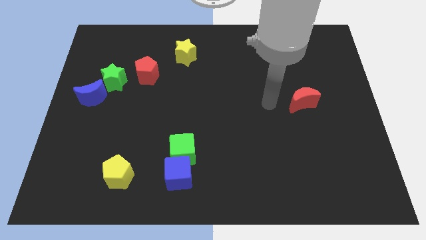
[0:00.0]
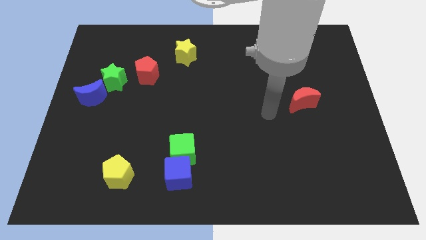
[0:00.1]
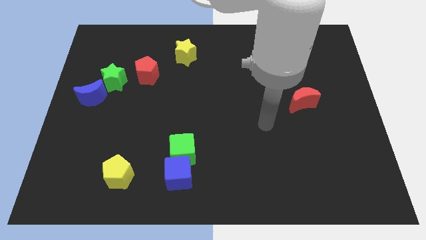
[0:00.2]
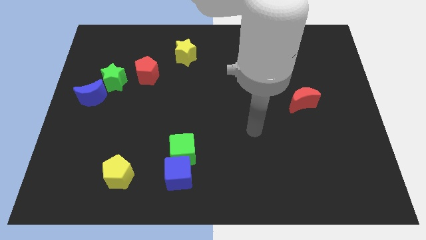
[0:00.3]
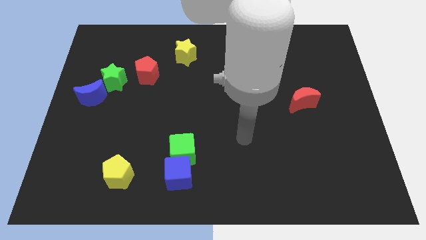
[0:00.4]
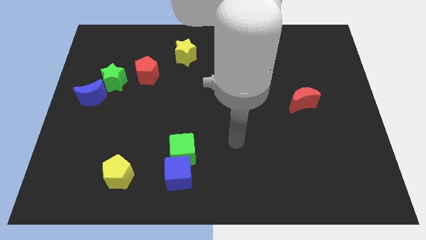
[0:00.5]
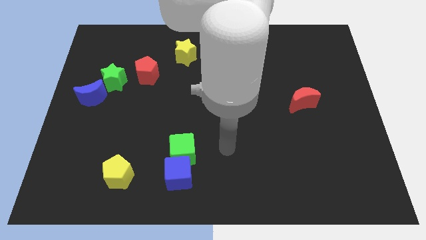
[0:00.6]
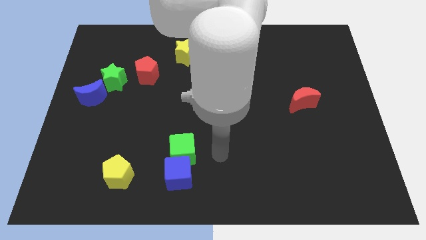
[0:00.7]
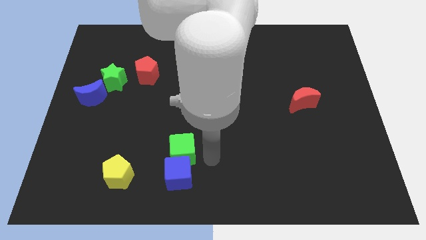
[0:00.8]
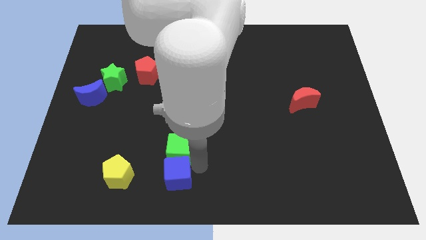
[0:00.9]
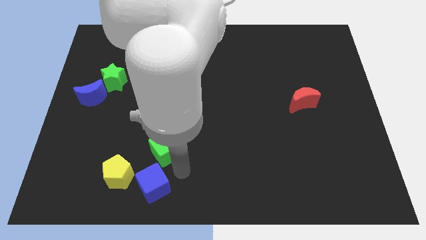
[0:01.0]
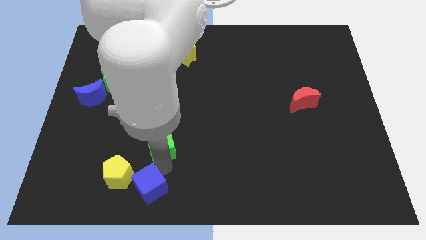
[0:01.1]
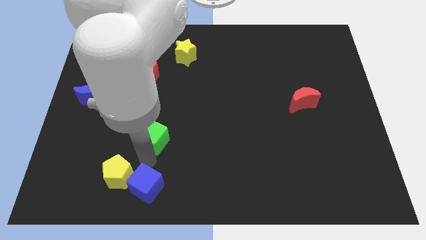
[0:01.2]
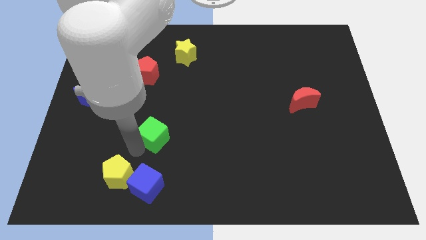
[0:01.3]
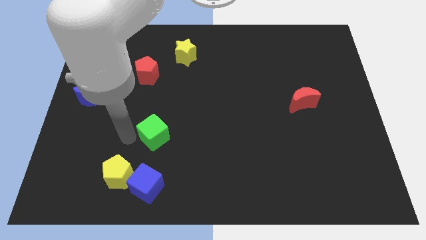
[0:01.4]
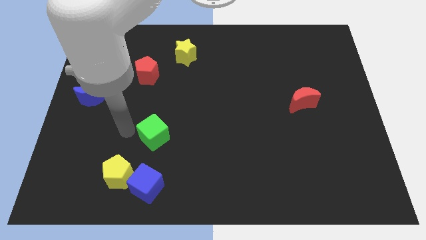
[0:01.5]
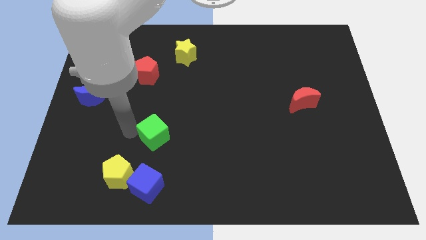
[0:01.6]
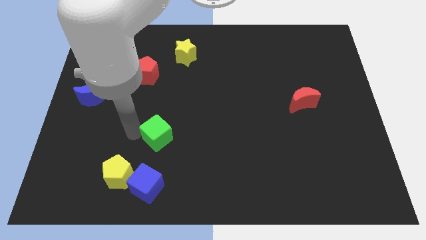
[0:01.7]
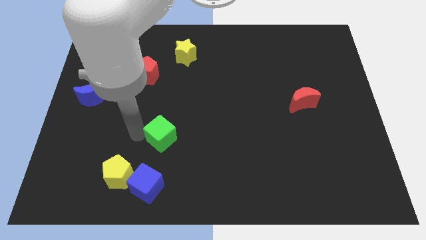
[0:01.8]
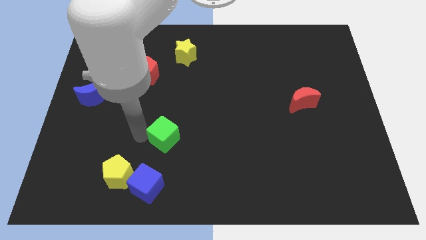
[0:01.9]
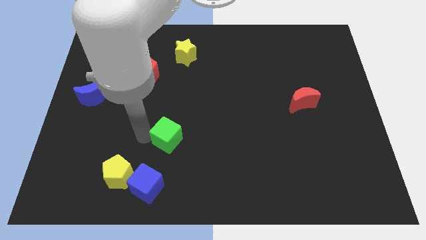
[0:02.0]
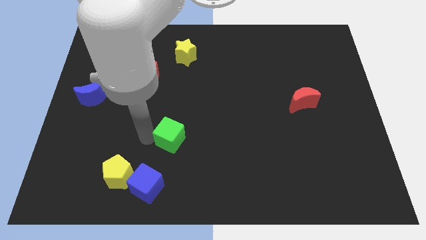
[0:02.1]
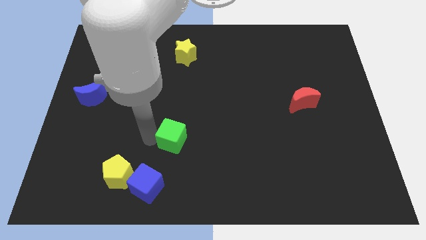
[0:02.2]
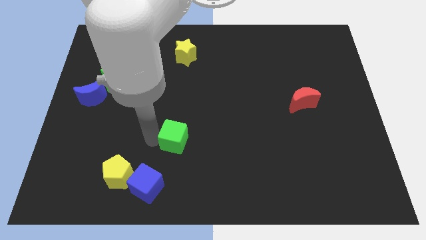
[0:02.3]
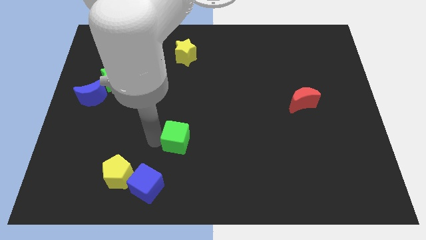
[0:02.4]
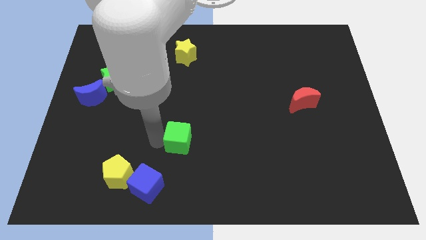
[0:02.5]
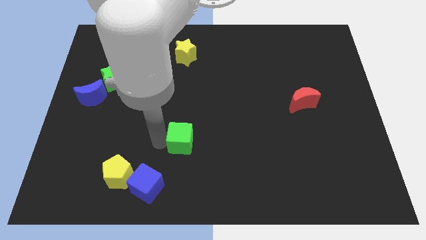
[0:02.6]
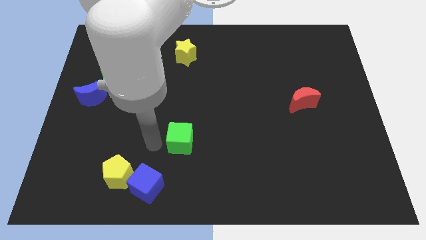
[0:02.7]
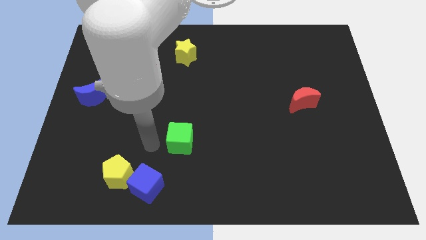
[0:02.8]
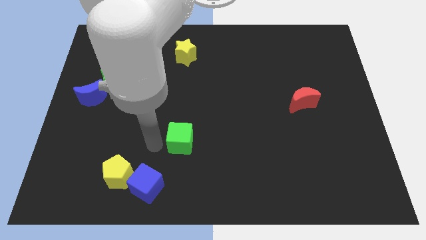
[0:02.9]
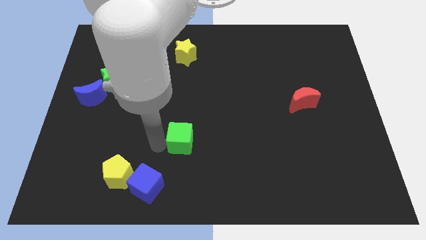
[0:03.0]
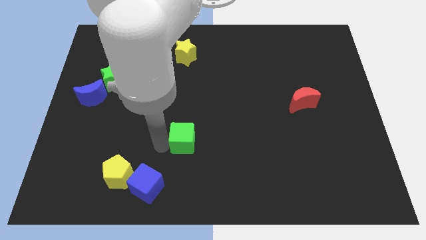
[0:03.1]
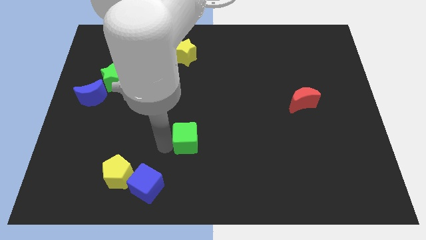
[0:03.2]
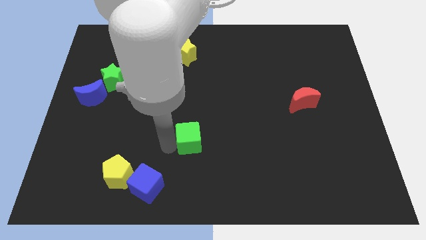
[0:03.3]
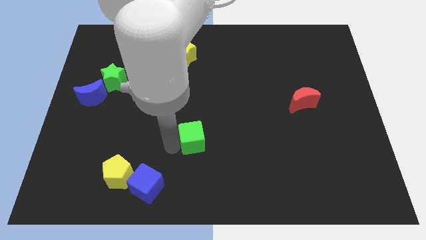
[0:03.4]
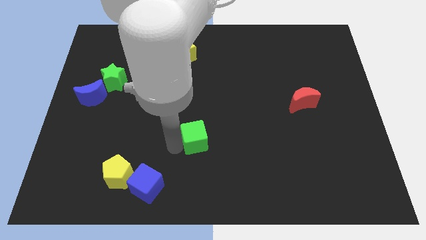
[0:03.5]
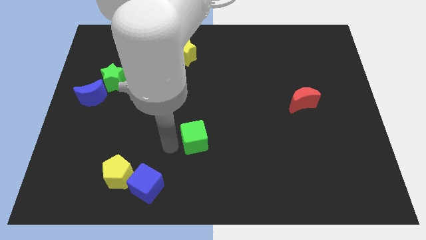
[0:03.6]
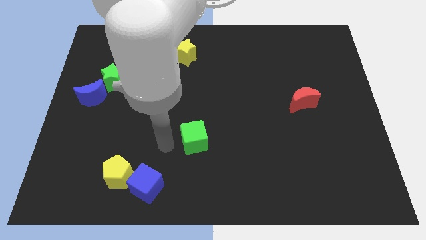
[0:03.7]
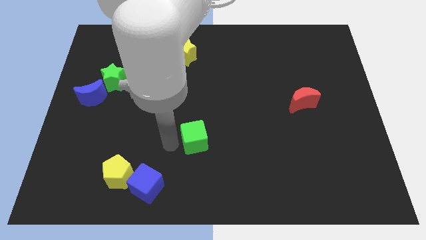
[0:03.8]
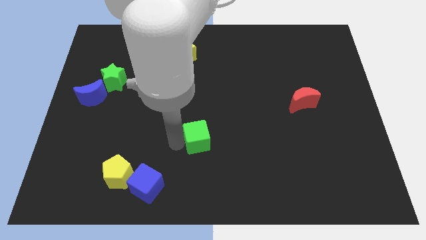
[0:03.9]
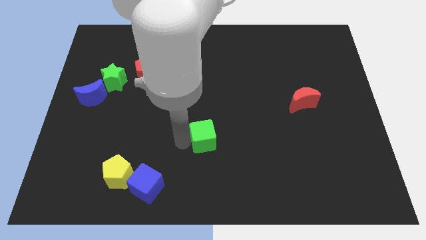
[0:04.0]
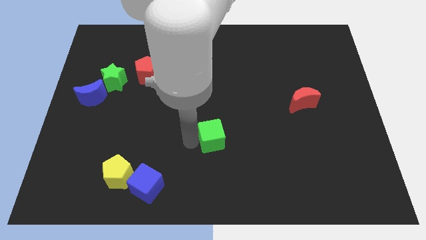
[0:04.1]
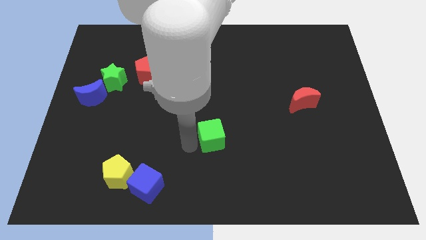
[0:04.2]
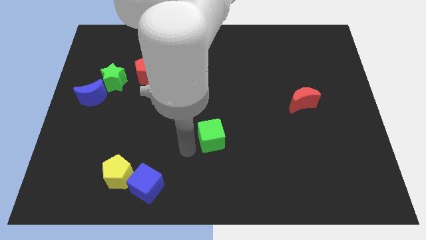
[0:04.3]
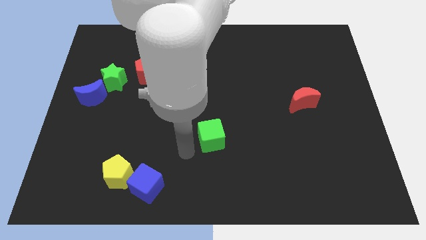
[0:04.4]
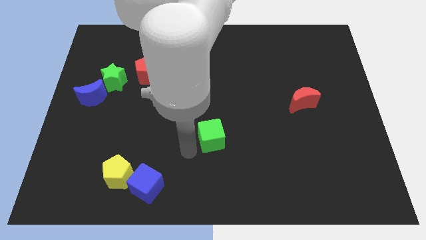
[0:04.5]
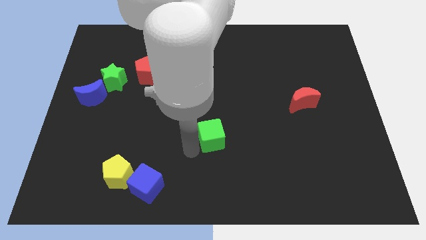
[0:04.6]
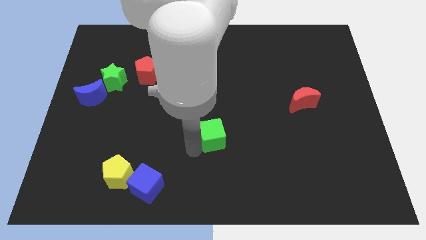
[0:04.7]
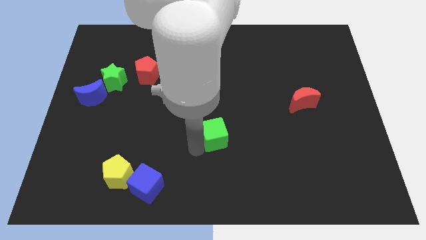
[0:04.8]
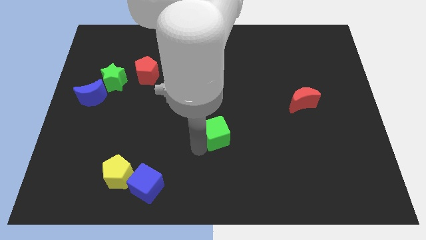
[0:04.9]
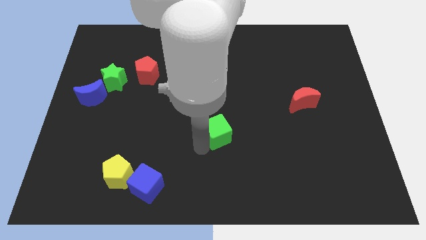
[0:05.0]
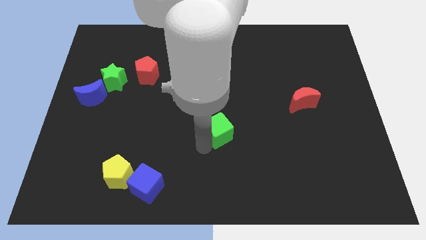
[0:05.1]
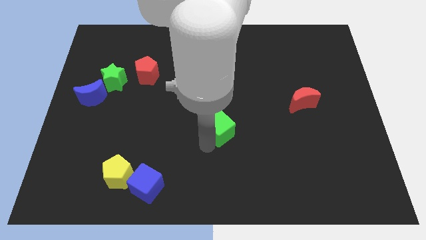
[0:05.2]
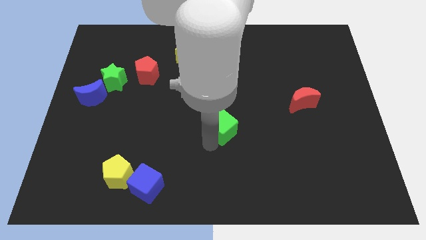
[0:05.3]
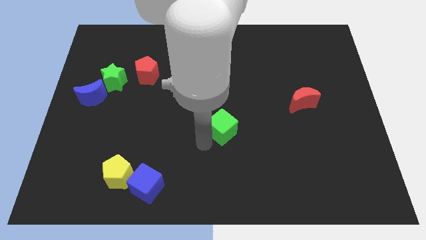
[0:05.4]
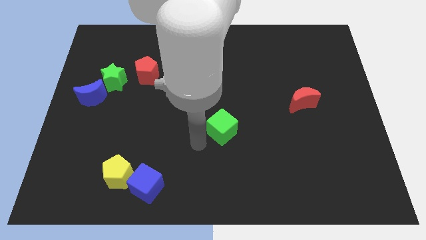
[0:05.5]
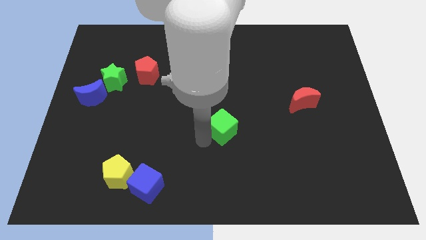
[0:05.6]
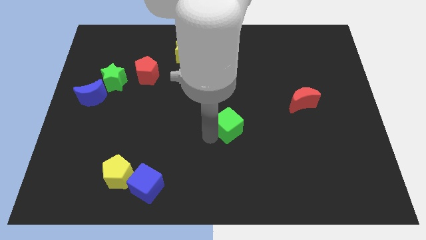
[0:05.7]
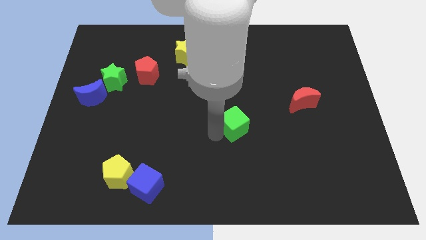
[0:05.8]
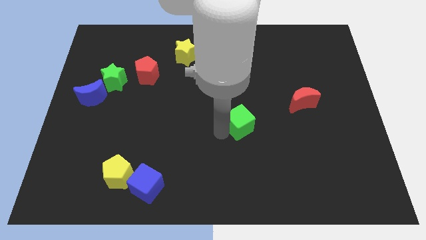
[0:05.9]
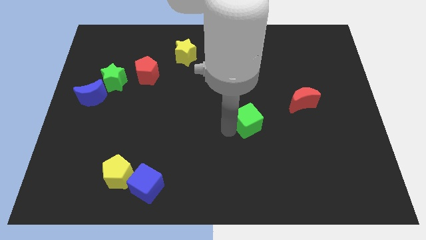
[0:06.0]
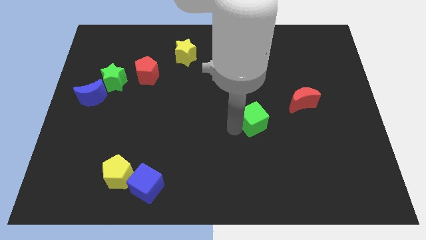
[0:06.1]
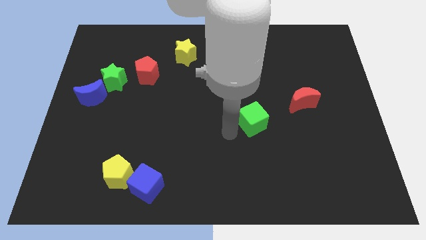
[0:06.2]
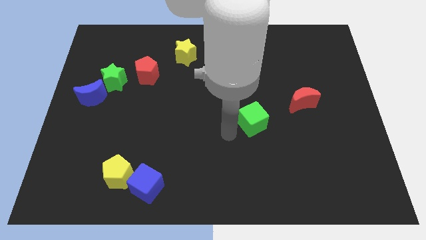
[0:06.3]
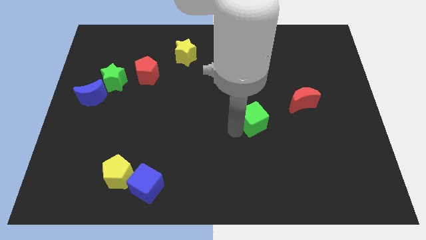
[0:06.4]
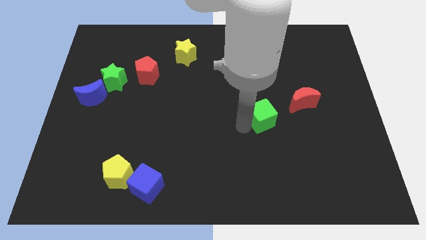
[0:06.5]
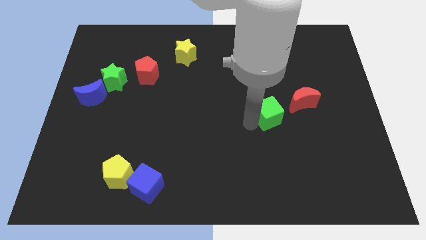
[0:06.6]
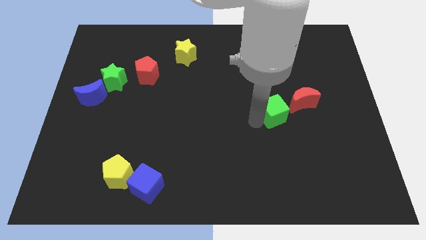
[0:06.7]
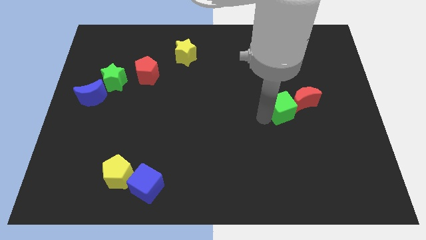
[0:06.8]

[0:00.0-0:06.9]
move the green cube next to the red moon

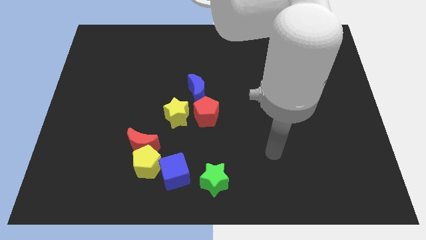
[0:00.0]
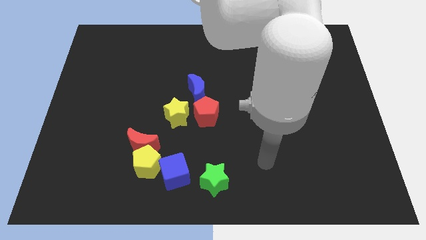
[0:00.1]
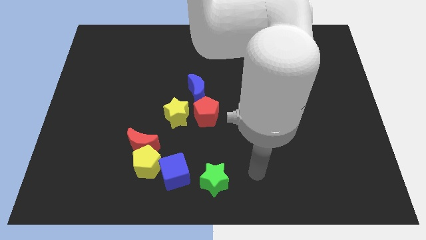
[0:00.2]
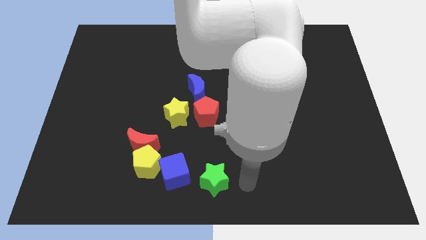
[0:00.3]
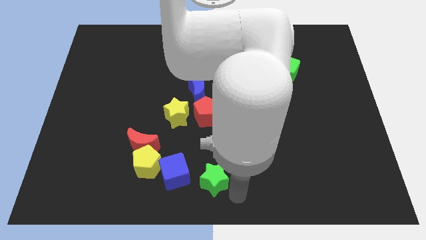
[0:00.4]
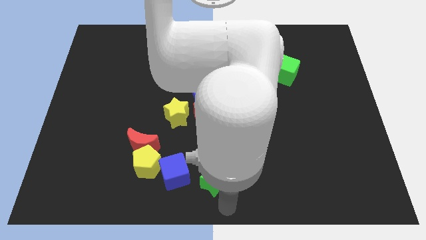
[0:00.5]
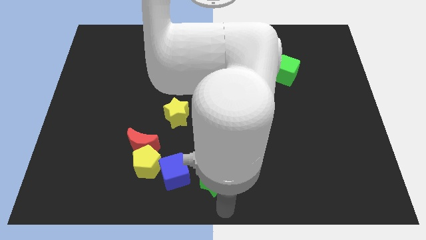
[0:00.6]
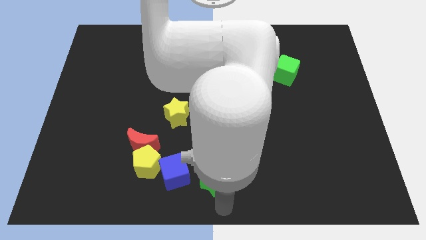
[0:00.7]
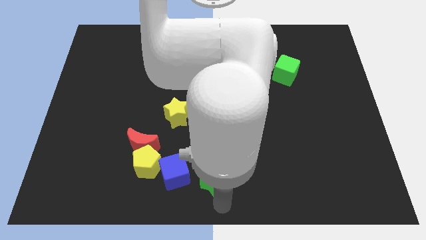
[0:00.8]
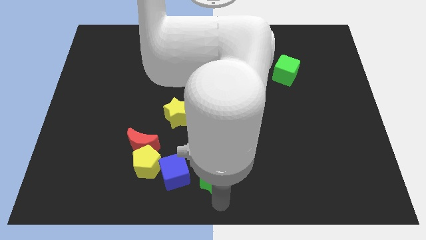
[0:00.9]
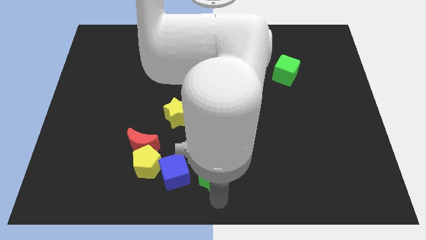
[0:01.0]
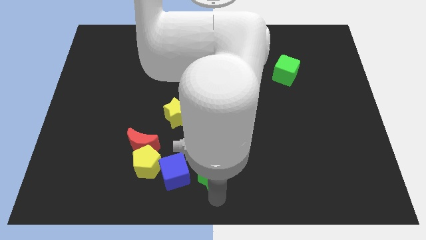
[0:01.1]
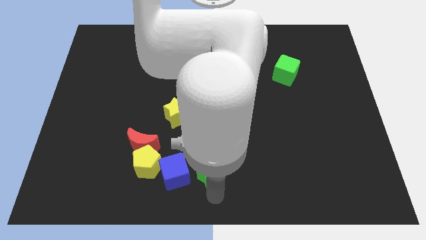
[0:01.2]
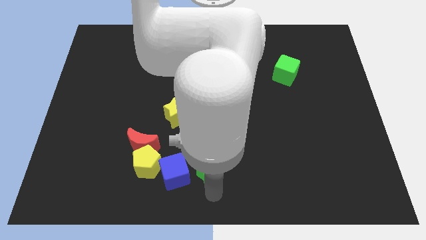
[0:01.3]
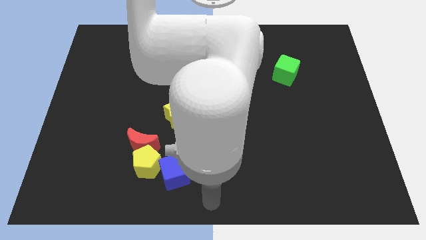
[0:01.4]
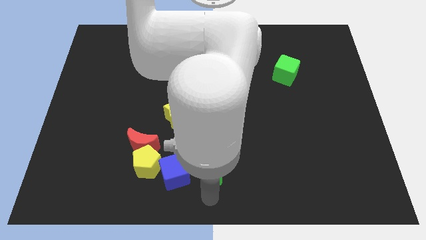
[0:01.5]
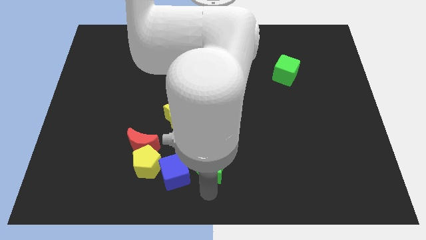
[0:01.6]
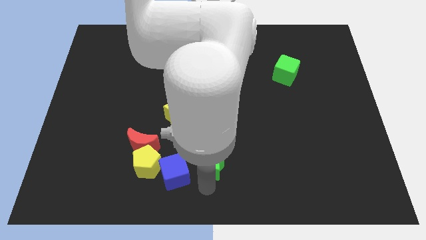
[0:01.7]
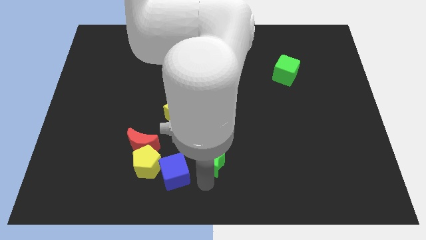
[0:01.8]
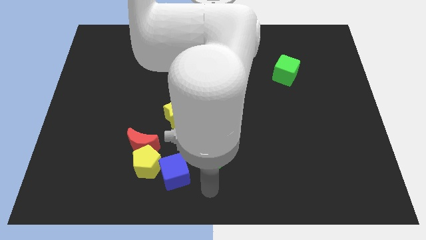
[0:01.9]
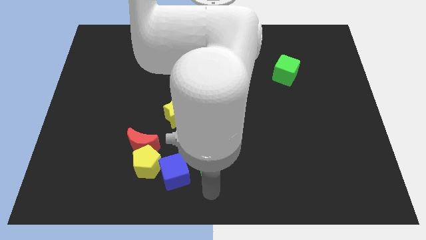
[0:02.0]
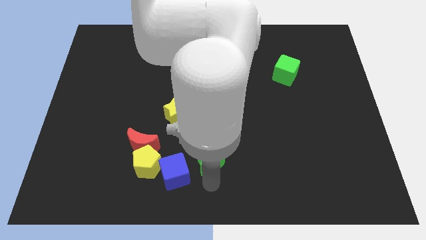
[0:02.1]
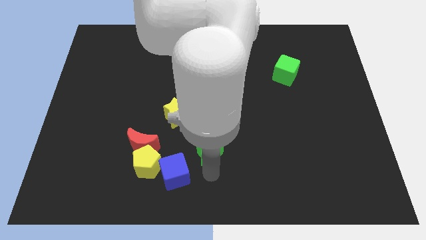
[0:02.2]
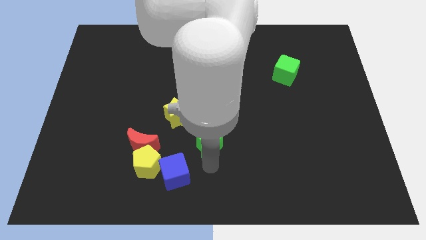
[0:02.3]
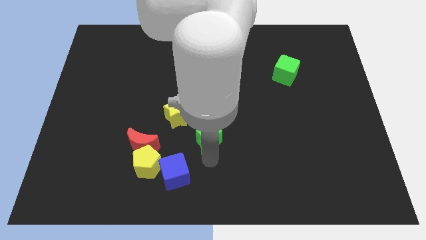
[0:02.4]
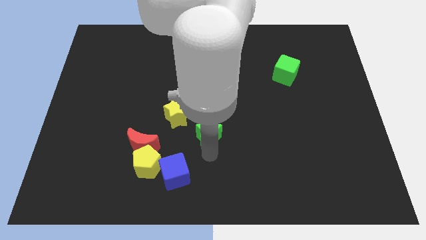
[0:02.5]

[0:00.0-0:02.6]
slide the green star to the red pentagon
